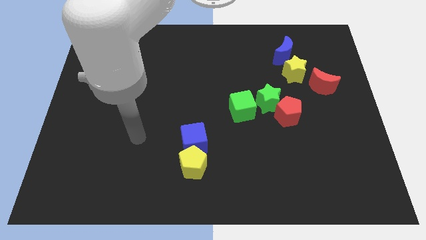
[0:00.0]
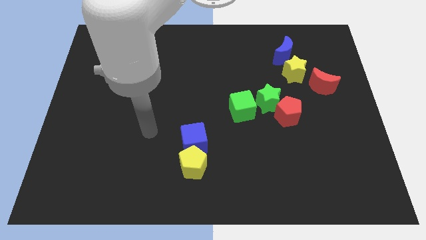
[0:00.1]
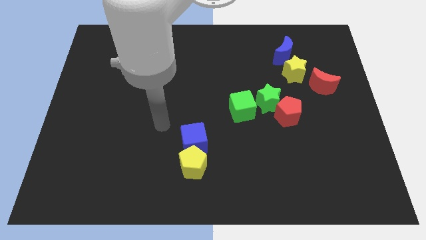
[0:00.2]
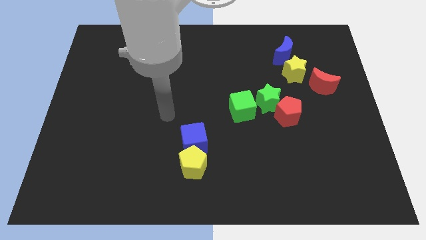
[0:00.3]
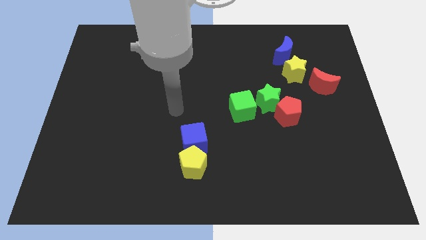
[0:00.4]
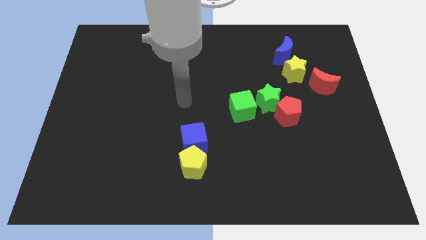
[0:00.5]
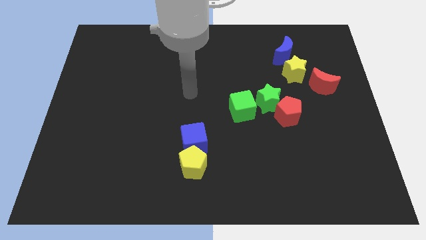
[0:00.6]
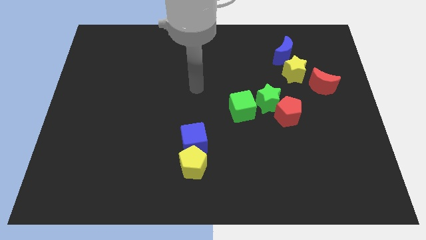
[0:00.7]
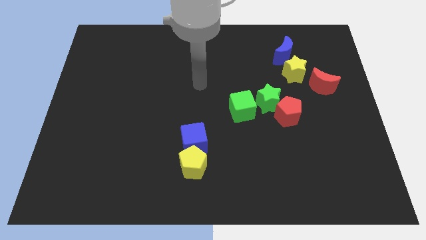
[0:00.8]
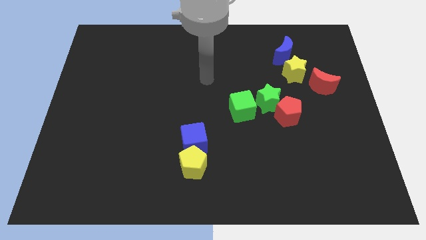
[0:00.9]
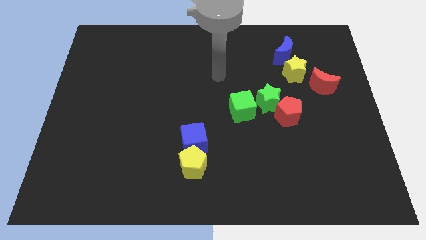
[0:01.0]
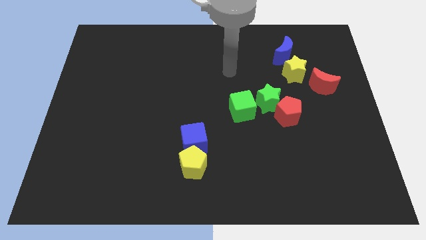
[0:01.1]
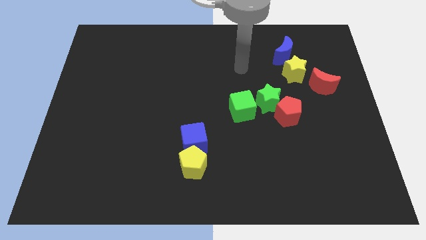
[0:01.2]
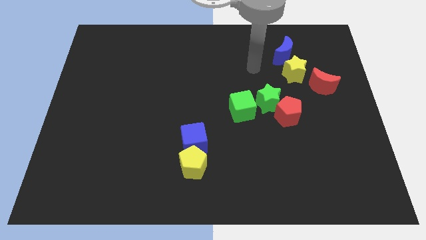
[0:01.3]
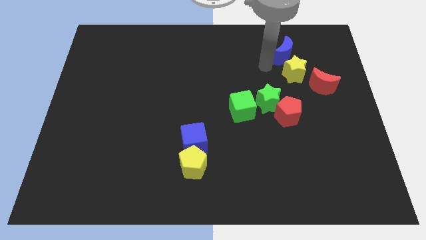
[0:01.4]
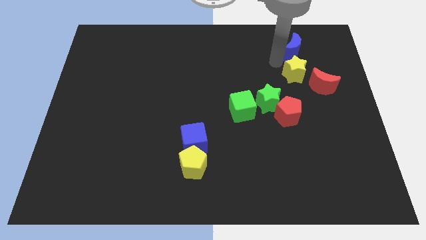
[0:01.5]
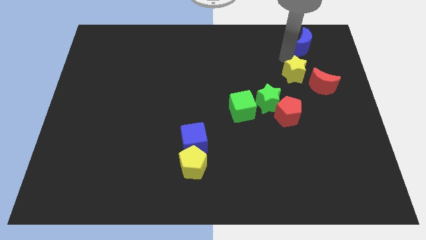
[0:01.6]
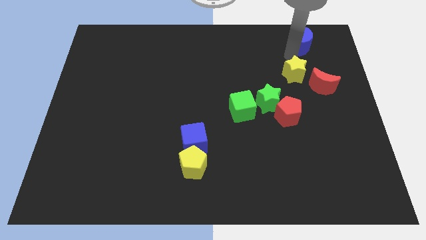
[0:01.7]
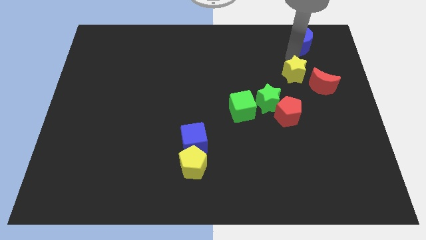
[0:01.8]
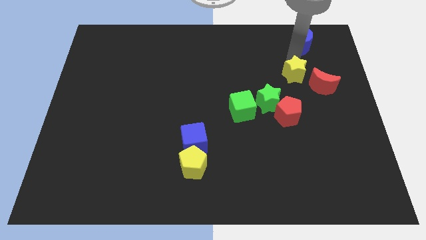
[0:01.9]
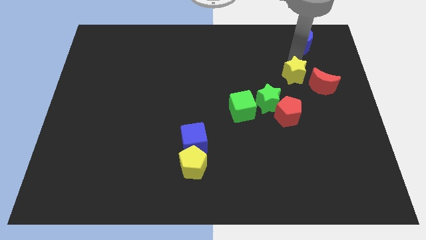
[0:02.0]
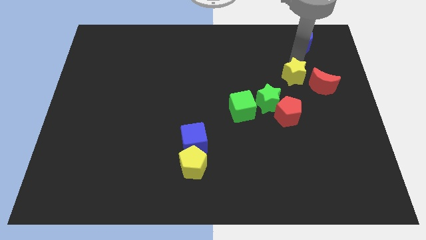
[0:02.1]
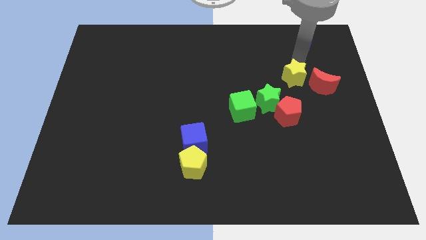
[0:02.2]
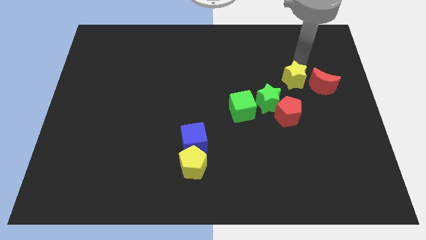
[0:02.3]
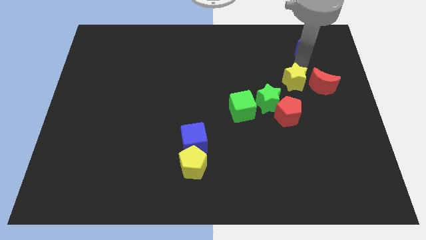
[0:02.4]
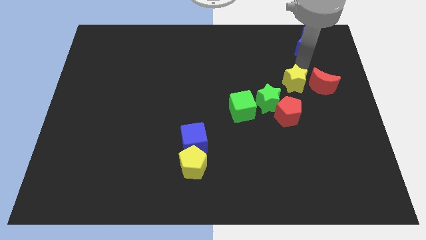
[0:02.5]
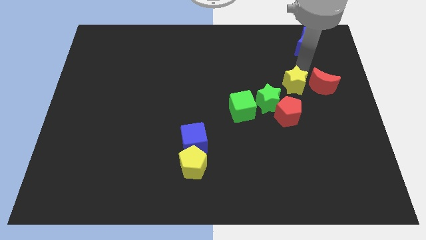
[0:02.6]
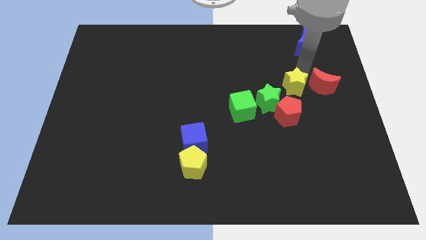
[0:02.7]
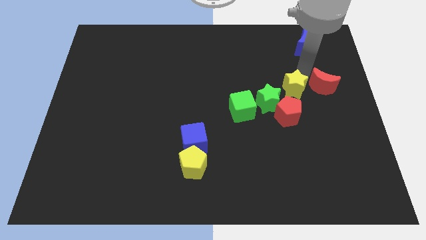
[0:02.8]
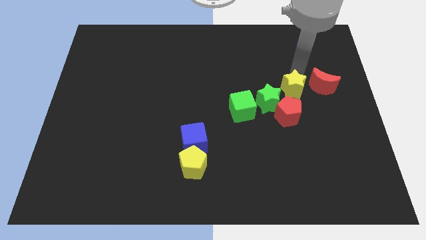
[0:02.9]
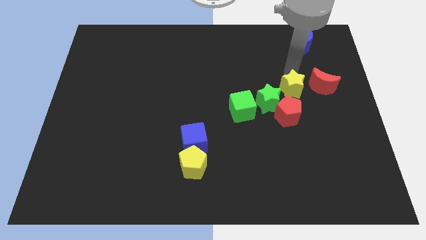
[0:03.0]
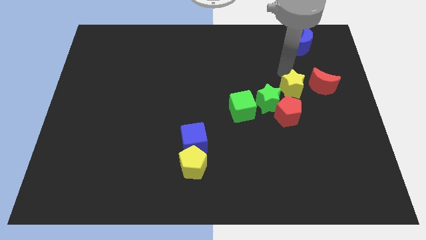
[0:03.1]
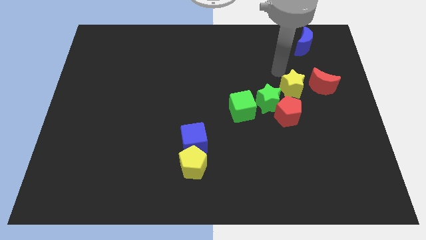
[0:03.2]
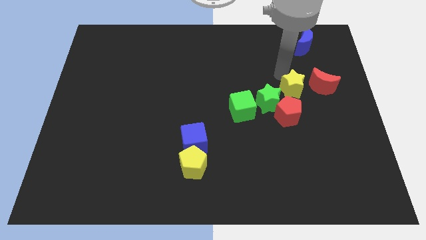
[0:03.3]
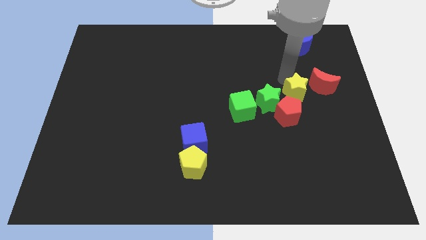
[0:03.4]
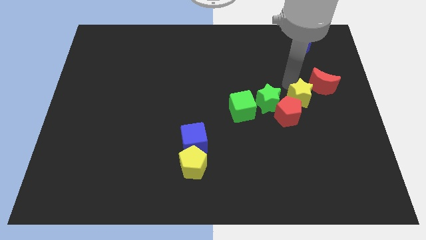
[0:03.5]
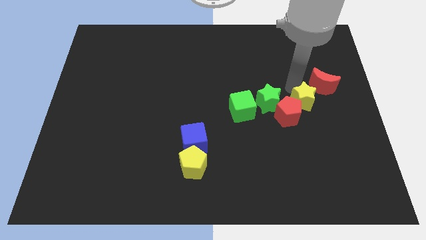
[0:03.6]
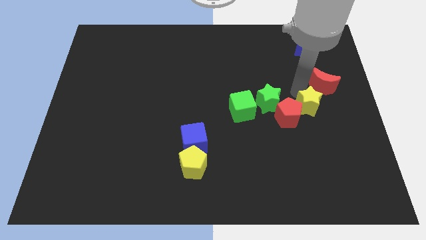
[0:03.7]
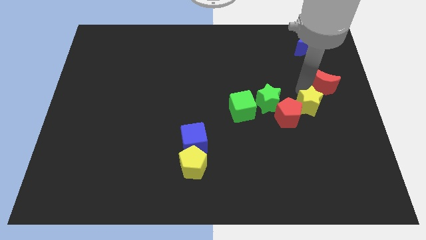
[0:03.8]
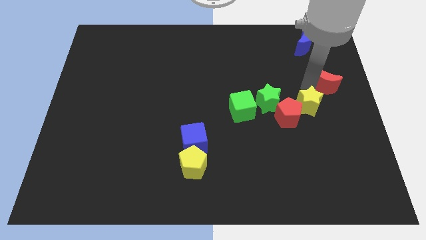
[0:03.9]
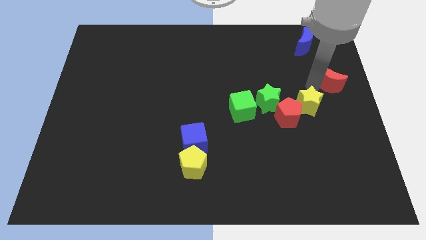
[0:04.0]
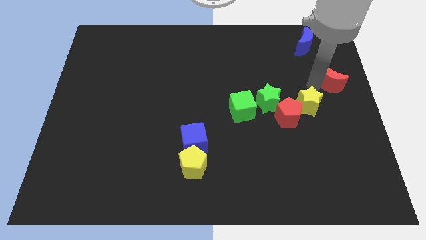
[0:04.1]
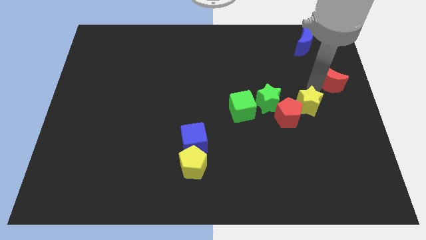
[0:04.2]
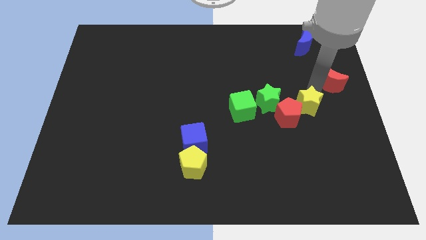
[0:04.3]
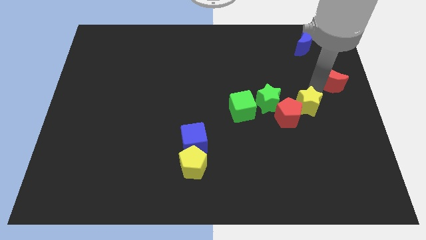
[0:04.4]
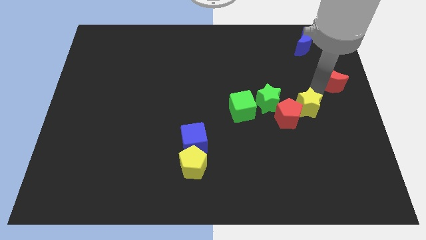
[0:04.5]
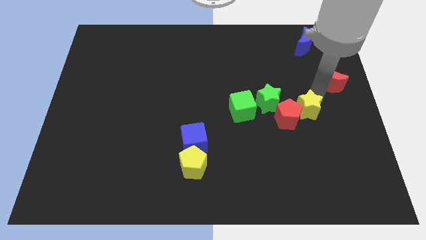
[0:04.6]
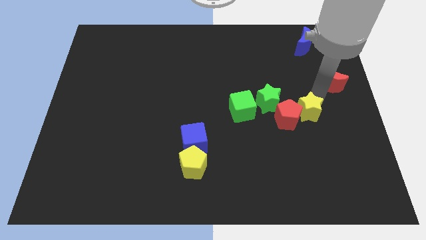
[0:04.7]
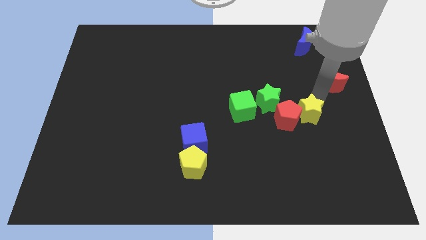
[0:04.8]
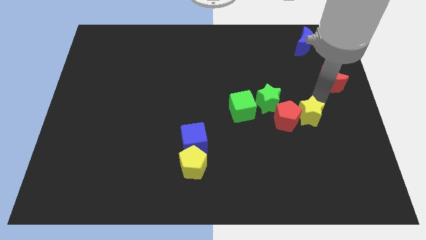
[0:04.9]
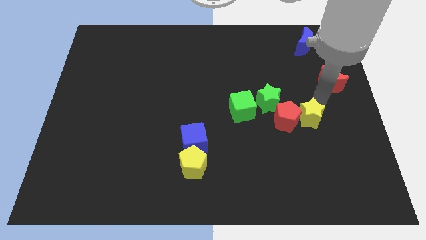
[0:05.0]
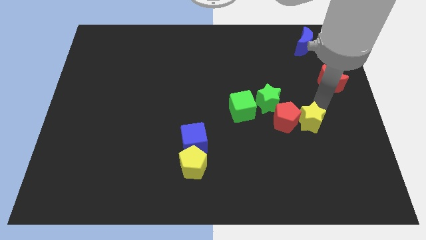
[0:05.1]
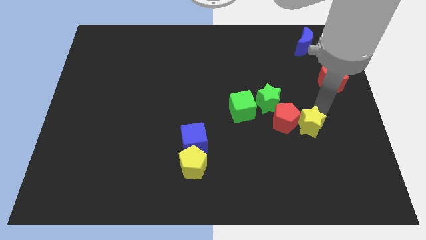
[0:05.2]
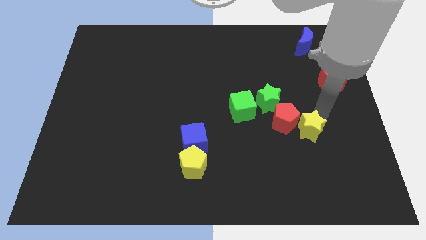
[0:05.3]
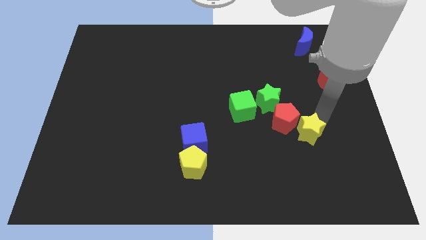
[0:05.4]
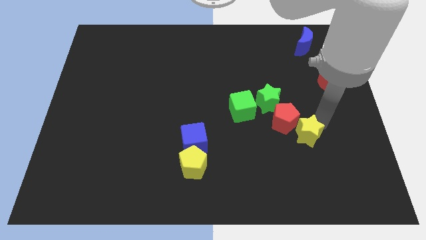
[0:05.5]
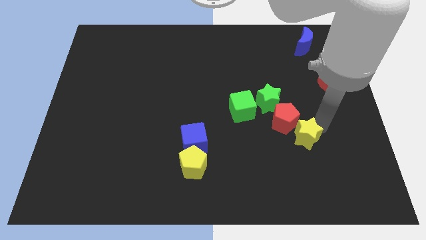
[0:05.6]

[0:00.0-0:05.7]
slide the yellow star to the bottom of the red pentagon
